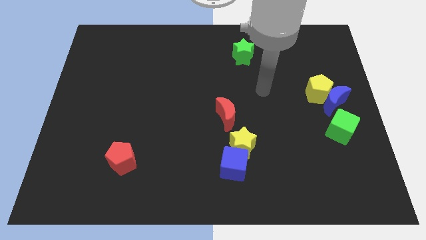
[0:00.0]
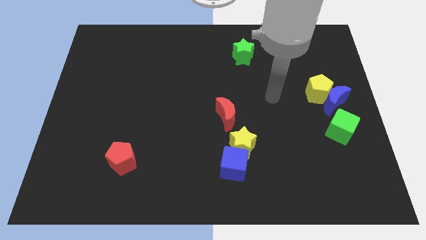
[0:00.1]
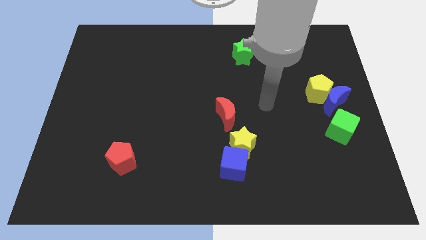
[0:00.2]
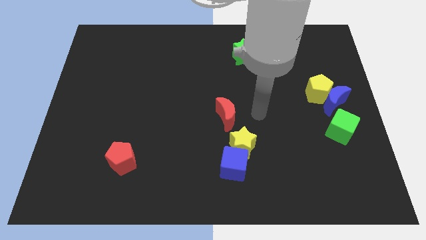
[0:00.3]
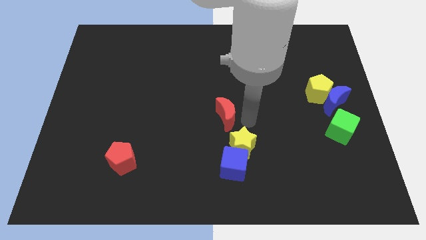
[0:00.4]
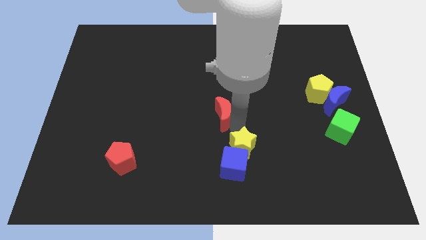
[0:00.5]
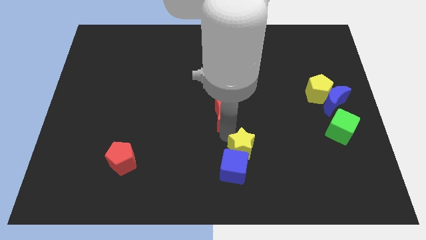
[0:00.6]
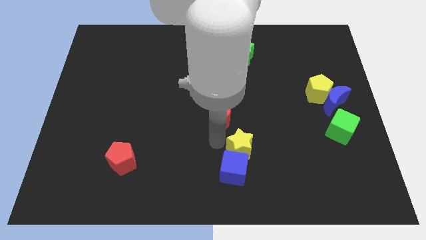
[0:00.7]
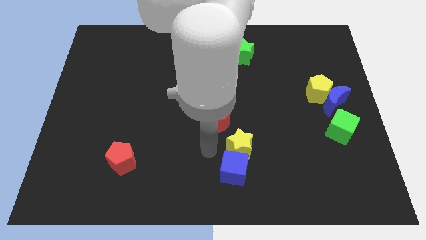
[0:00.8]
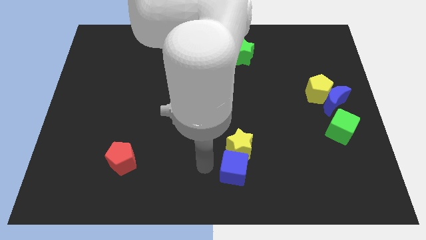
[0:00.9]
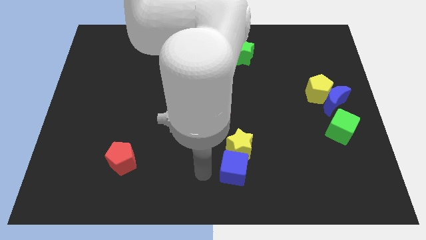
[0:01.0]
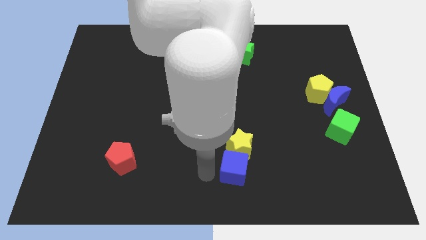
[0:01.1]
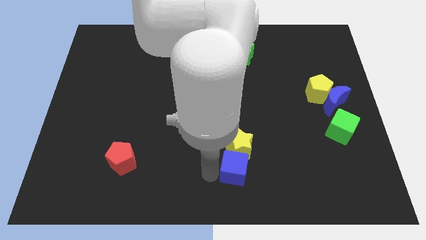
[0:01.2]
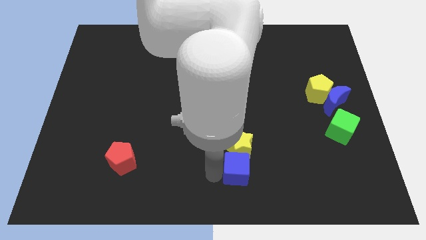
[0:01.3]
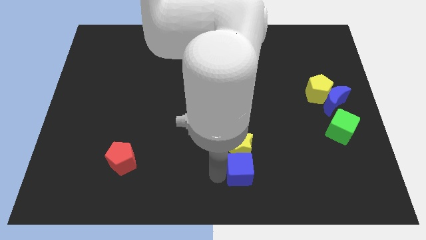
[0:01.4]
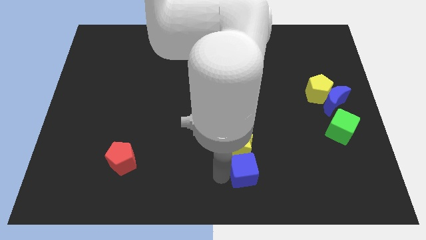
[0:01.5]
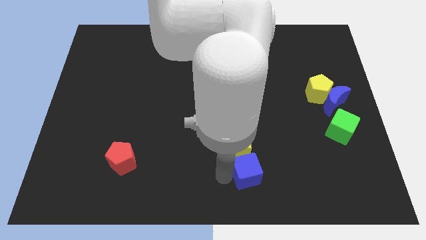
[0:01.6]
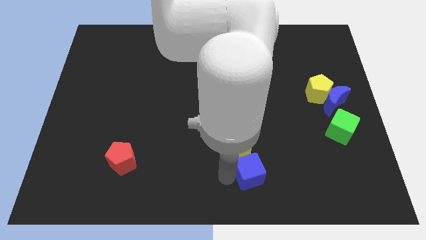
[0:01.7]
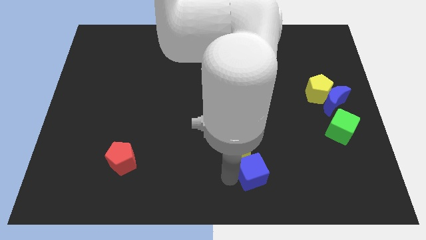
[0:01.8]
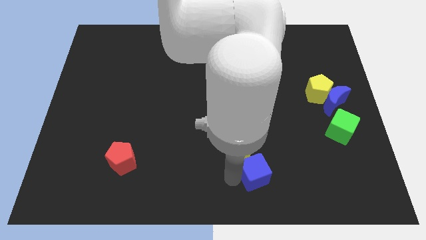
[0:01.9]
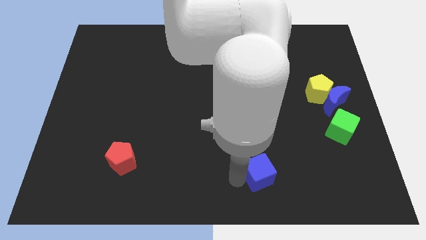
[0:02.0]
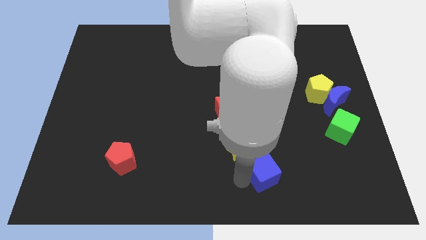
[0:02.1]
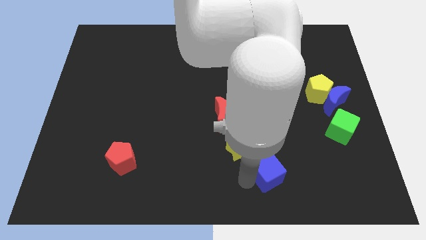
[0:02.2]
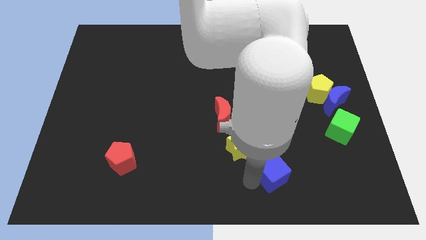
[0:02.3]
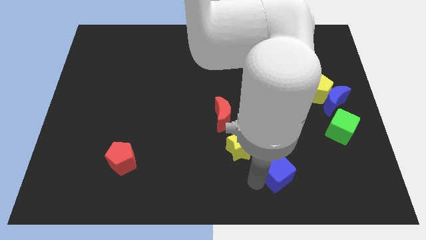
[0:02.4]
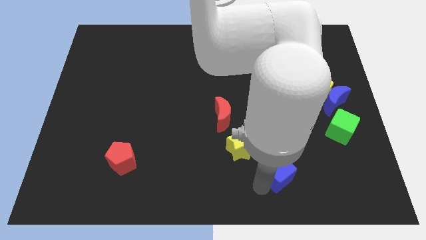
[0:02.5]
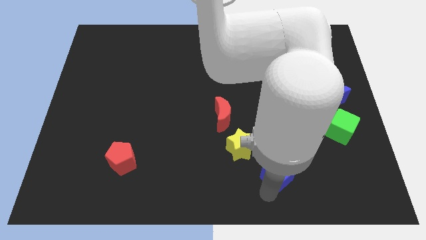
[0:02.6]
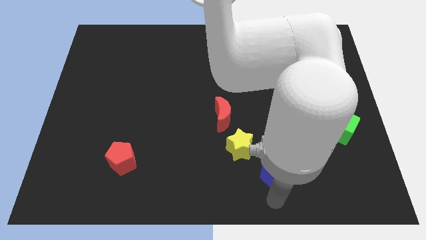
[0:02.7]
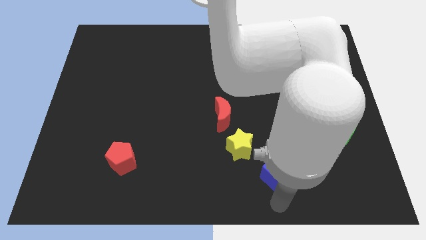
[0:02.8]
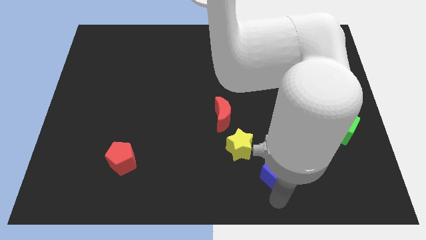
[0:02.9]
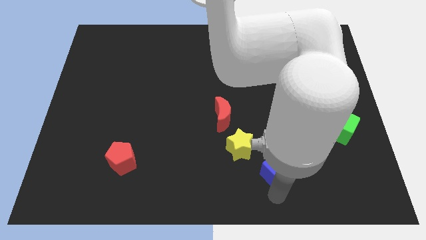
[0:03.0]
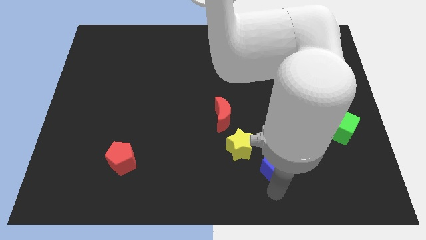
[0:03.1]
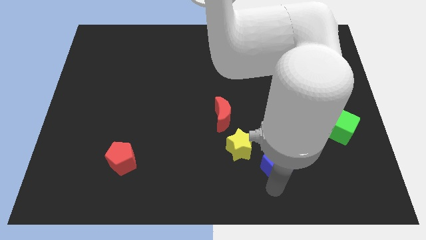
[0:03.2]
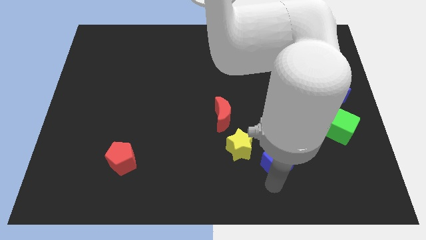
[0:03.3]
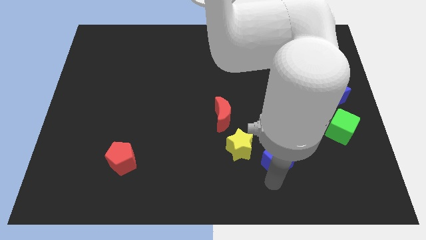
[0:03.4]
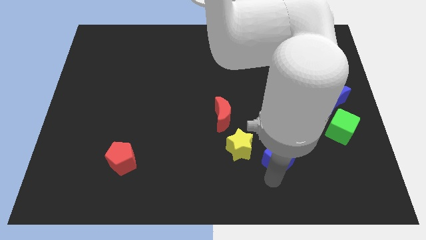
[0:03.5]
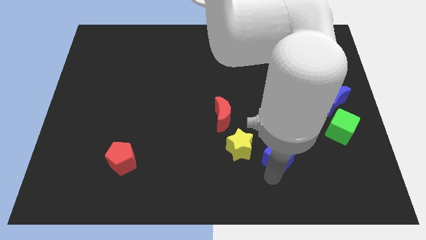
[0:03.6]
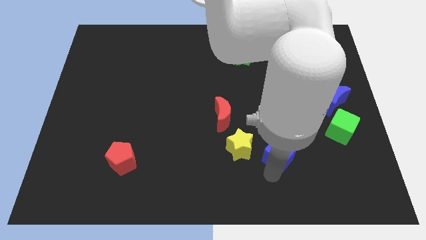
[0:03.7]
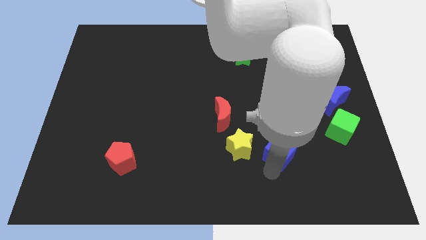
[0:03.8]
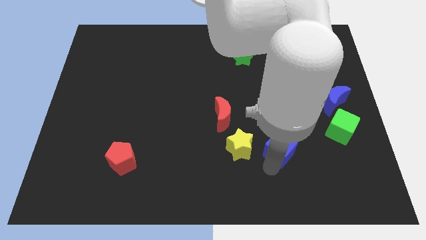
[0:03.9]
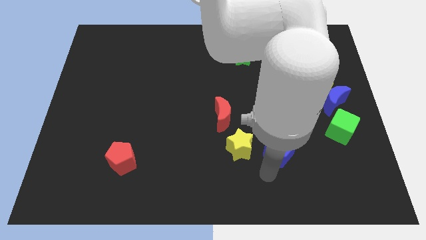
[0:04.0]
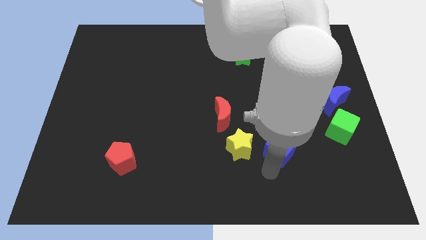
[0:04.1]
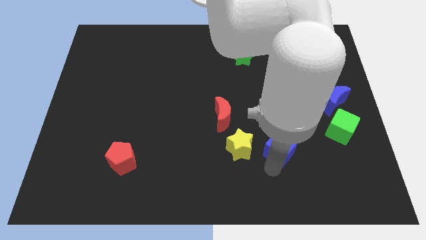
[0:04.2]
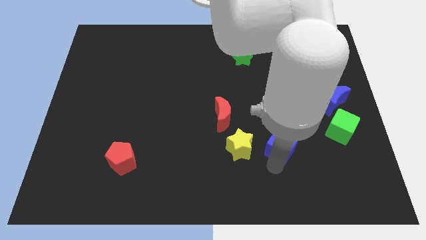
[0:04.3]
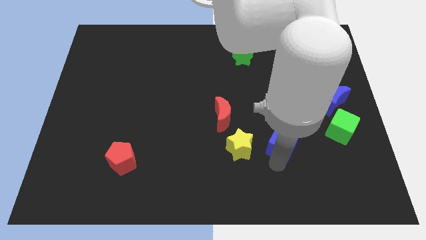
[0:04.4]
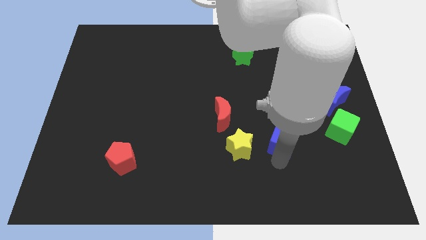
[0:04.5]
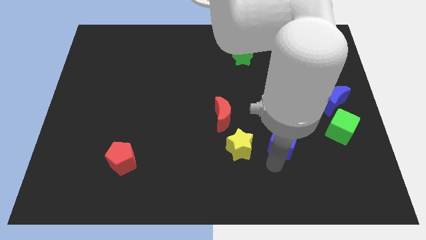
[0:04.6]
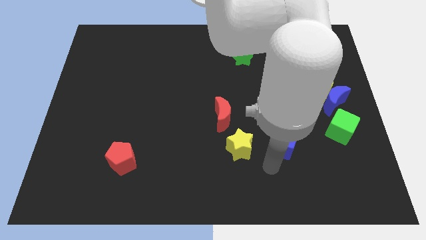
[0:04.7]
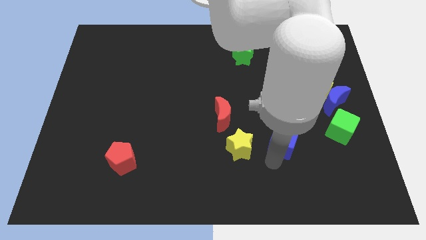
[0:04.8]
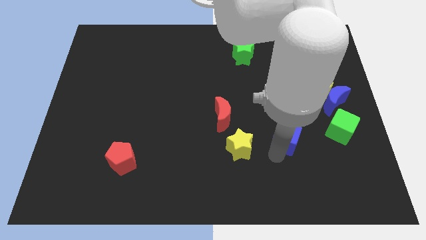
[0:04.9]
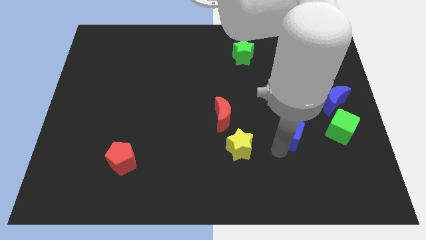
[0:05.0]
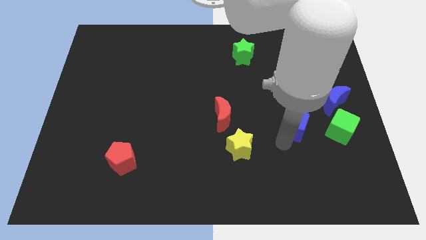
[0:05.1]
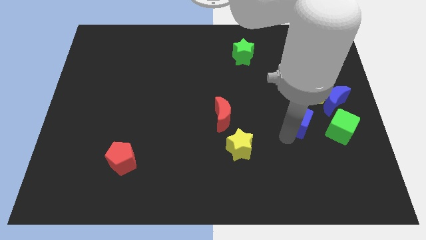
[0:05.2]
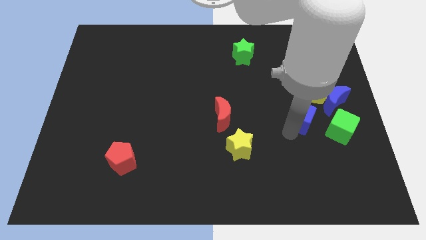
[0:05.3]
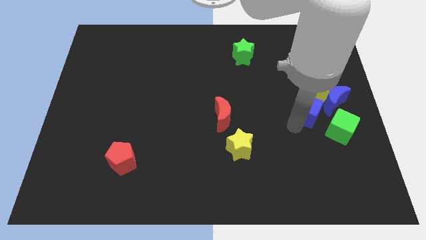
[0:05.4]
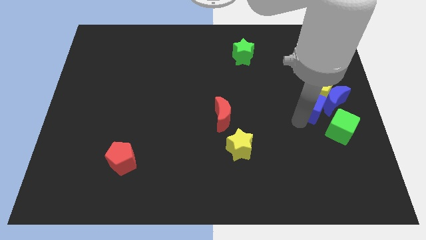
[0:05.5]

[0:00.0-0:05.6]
push the blue cube towards the yellow pentagon

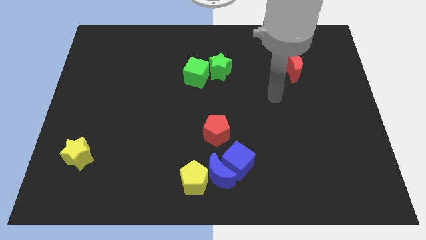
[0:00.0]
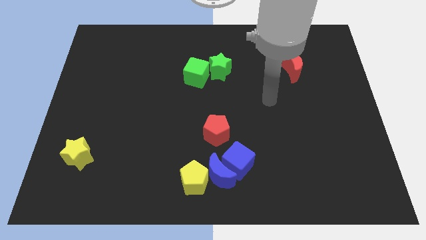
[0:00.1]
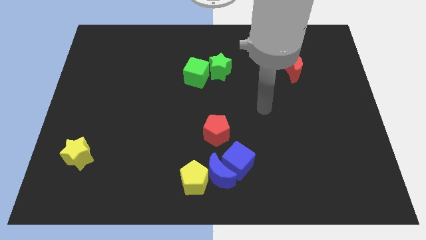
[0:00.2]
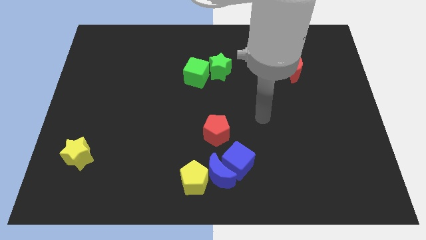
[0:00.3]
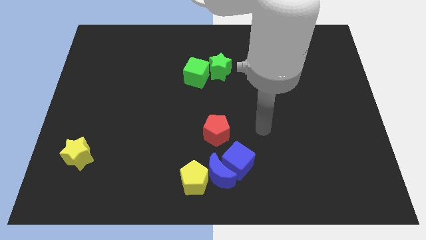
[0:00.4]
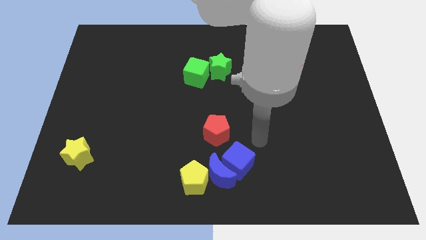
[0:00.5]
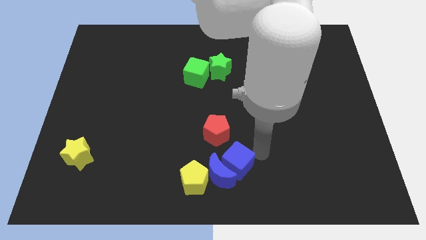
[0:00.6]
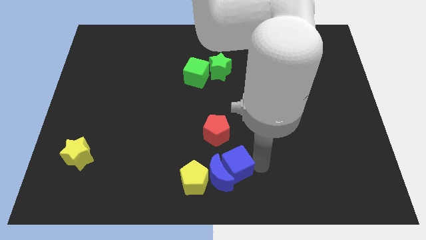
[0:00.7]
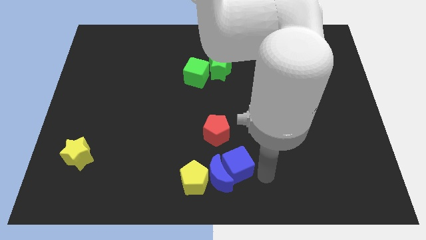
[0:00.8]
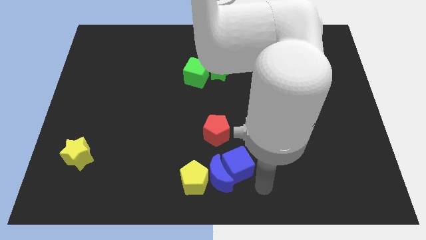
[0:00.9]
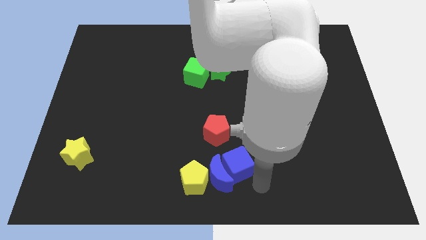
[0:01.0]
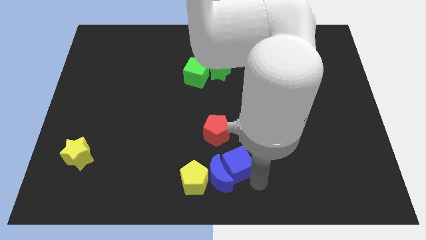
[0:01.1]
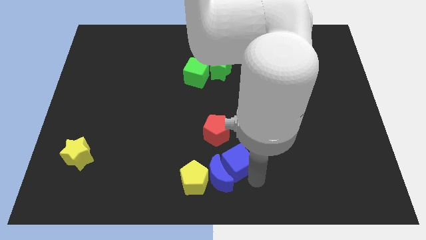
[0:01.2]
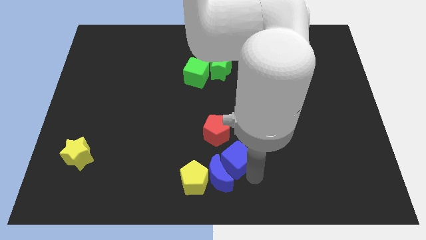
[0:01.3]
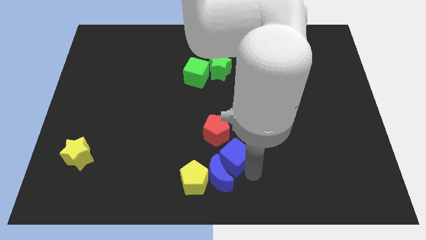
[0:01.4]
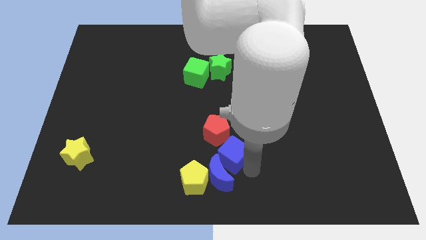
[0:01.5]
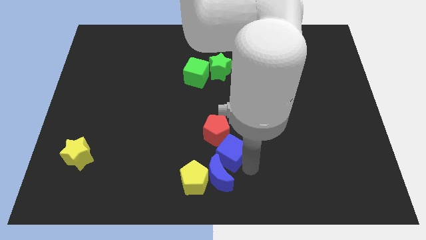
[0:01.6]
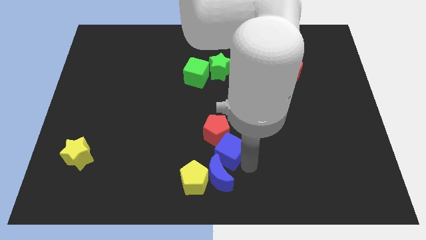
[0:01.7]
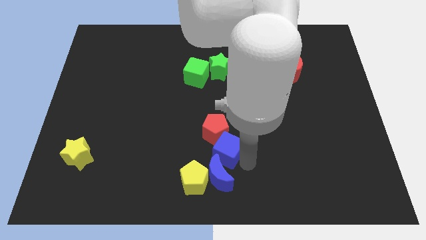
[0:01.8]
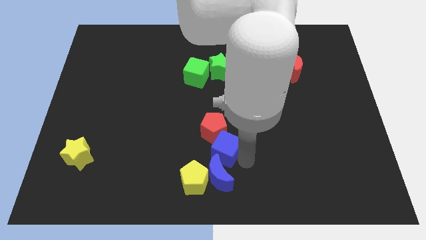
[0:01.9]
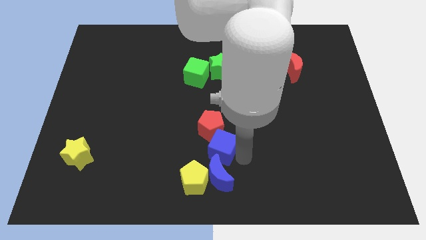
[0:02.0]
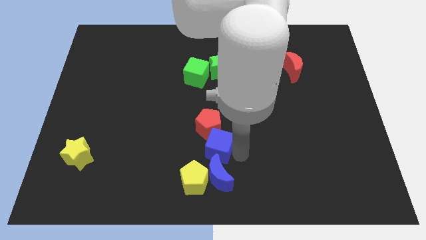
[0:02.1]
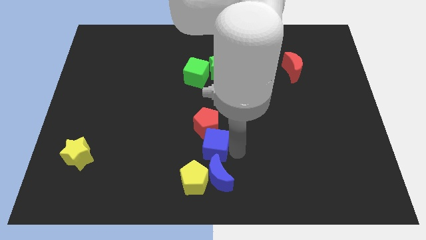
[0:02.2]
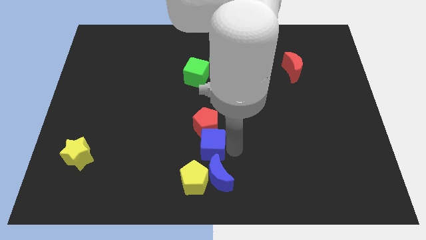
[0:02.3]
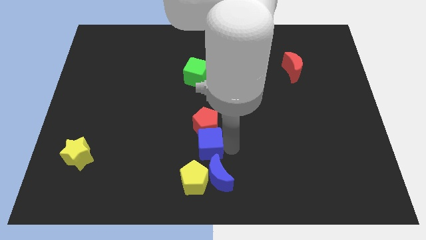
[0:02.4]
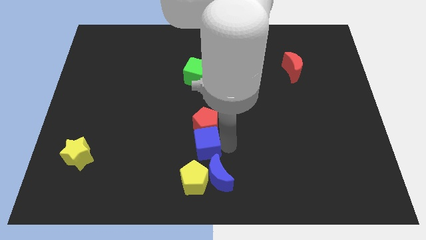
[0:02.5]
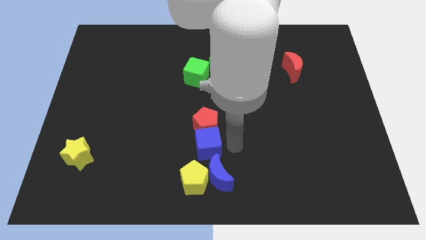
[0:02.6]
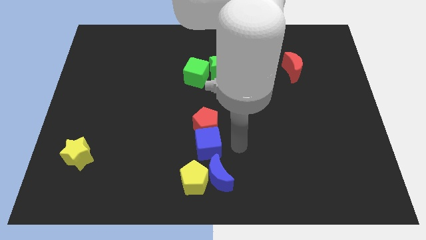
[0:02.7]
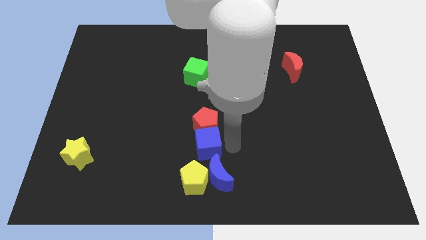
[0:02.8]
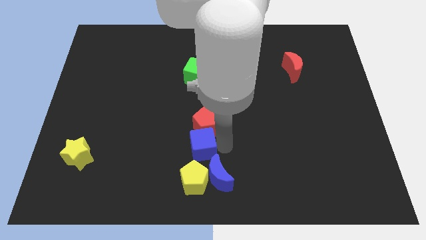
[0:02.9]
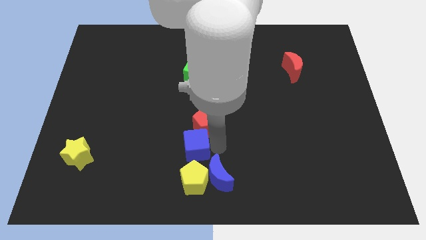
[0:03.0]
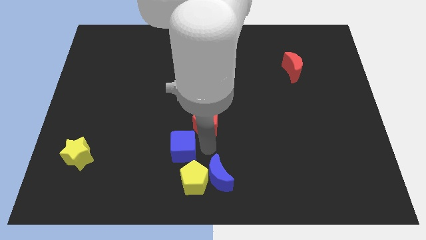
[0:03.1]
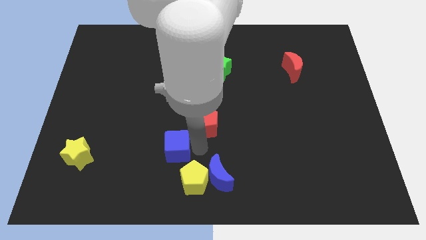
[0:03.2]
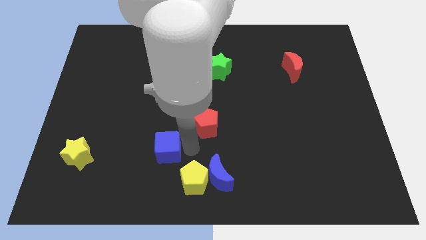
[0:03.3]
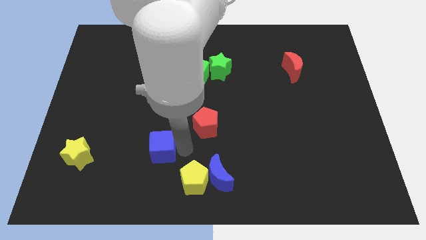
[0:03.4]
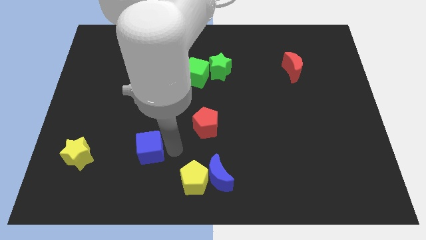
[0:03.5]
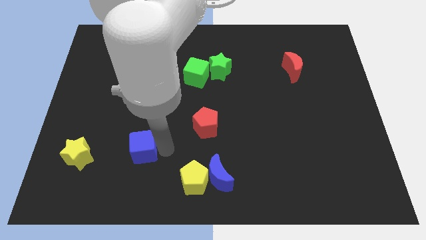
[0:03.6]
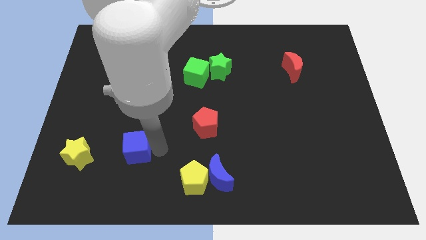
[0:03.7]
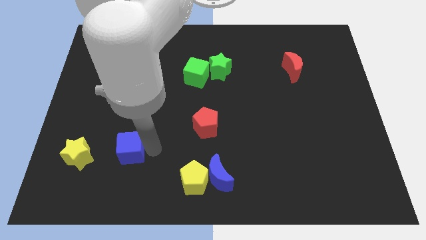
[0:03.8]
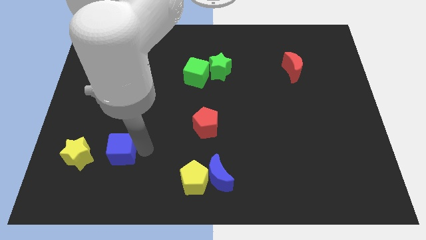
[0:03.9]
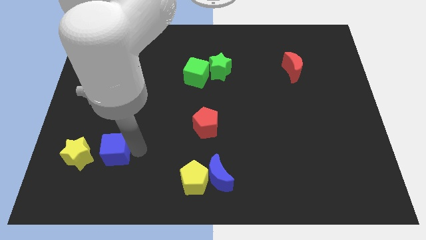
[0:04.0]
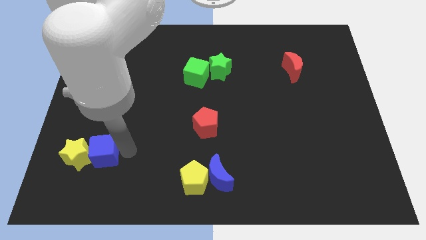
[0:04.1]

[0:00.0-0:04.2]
push the blue cube to the yellow star
